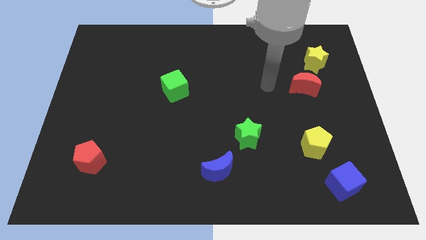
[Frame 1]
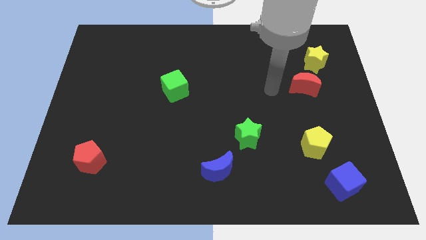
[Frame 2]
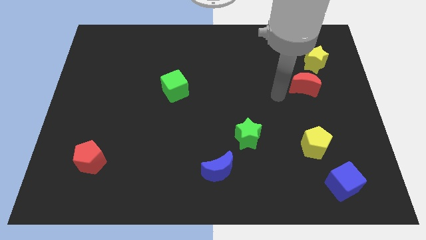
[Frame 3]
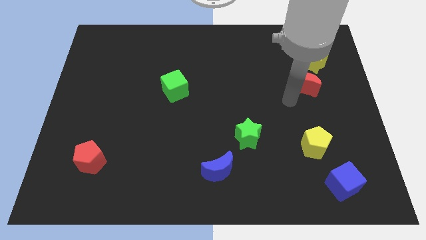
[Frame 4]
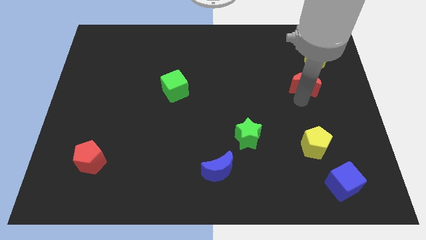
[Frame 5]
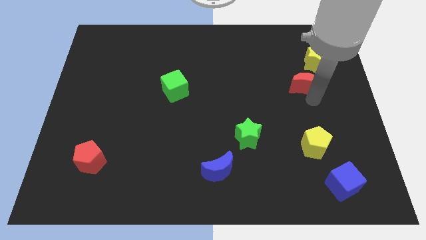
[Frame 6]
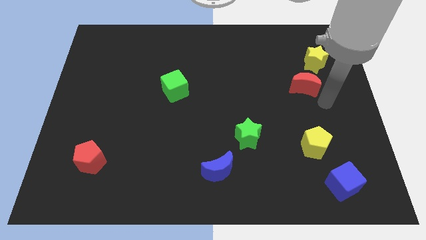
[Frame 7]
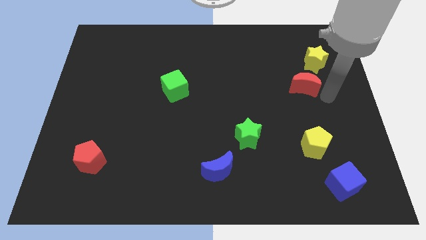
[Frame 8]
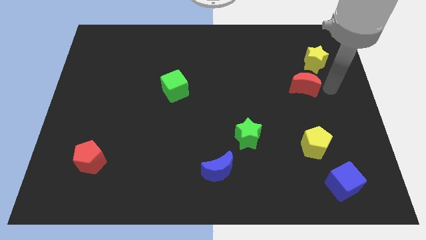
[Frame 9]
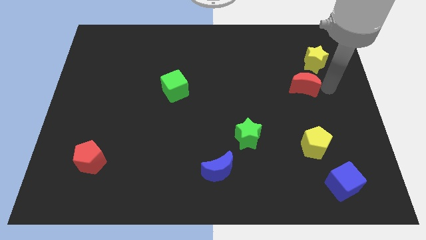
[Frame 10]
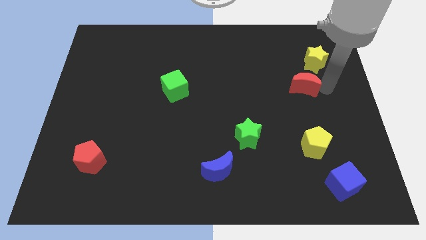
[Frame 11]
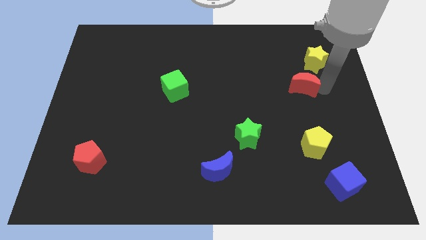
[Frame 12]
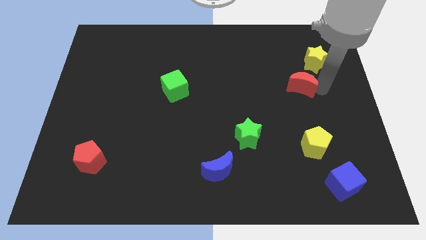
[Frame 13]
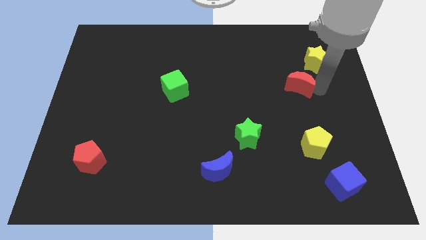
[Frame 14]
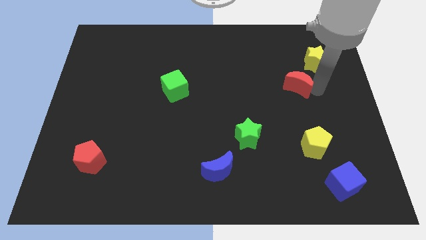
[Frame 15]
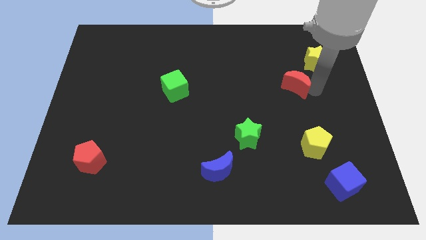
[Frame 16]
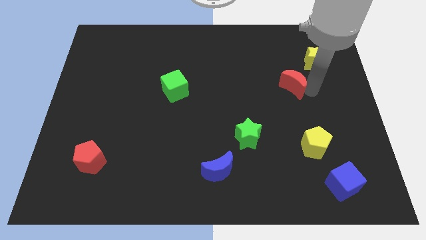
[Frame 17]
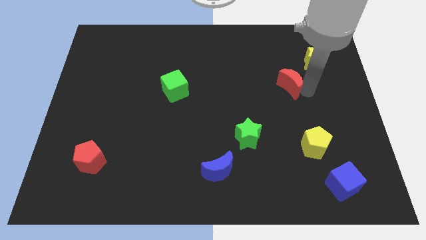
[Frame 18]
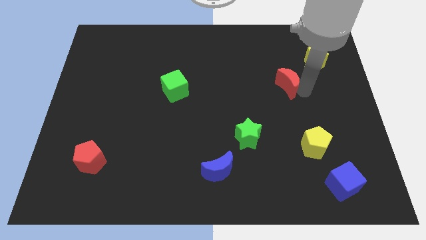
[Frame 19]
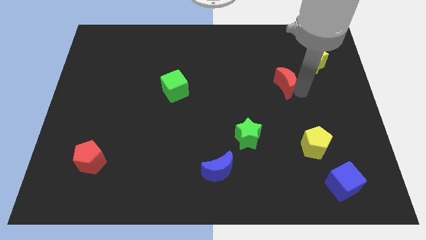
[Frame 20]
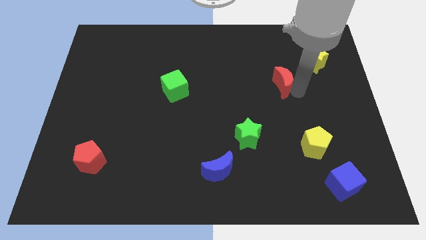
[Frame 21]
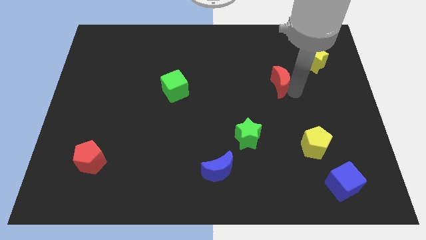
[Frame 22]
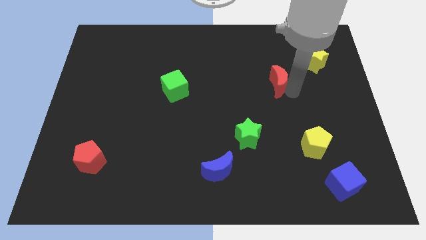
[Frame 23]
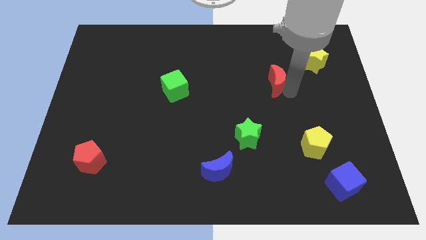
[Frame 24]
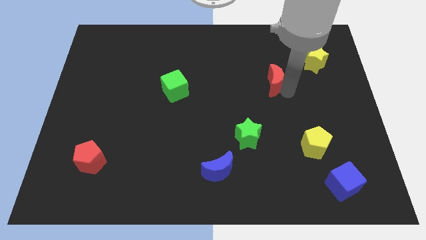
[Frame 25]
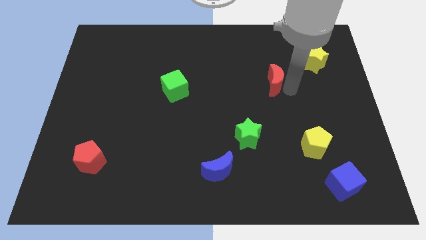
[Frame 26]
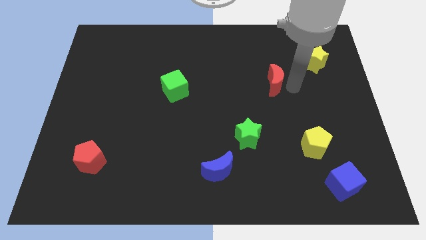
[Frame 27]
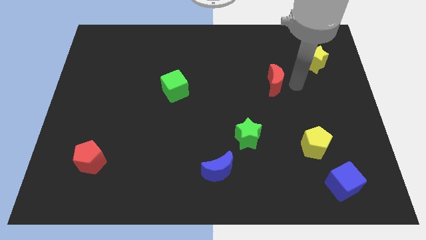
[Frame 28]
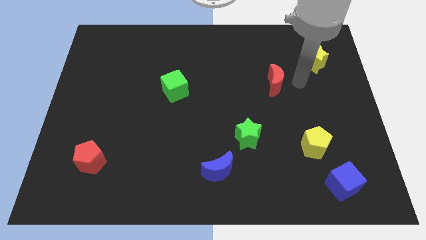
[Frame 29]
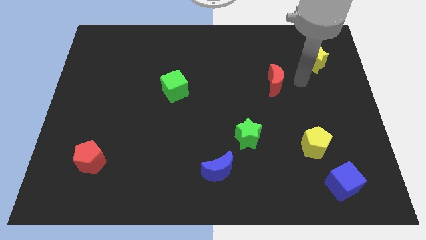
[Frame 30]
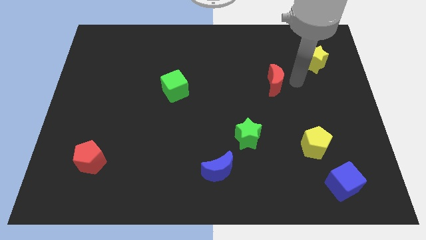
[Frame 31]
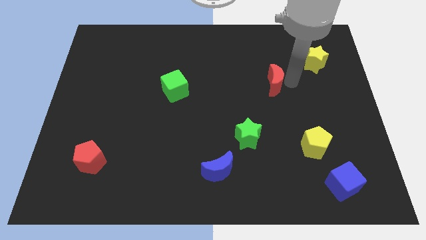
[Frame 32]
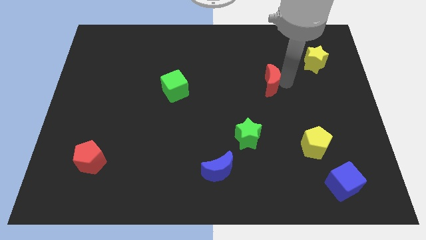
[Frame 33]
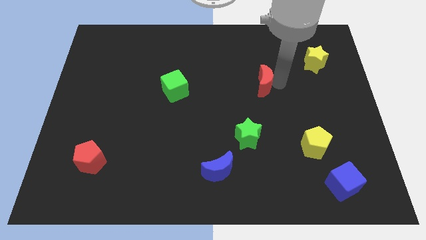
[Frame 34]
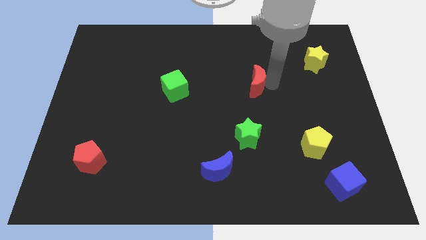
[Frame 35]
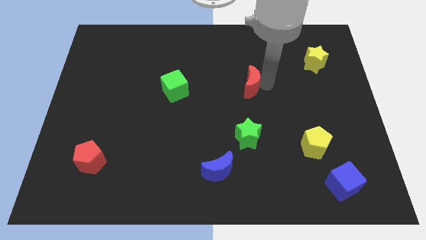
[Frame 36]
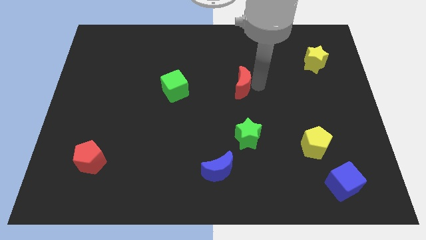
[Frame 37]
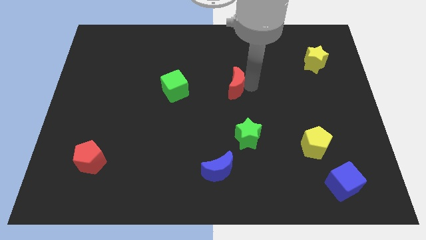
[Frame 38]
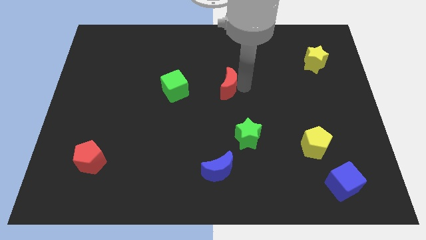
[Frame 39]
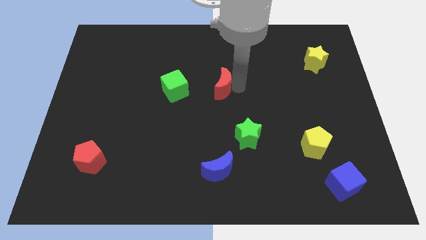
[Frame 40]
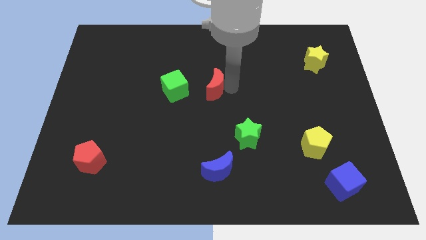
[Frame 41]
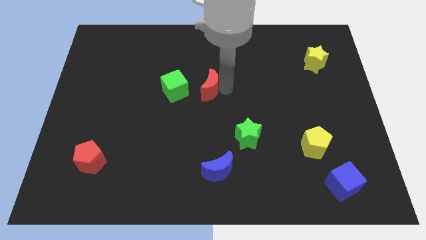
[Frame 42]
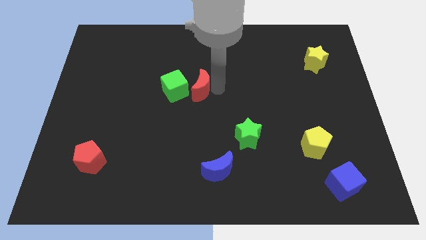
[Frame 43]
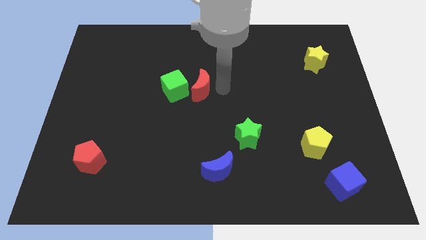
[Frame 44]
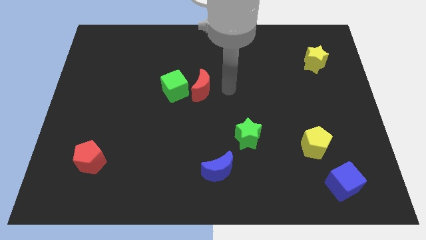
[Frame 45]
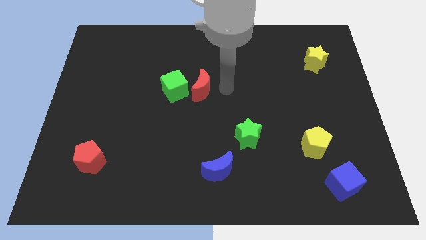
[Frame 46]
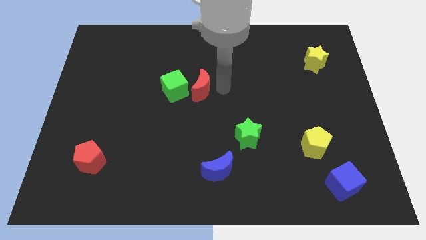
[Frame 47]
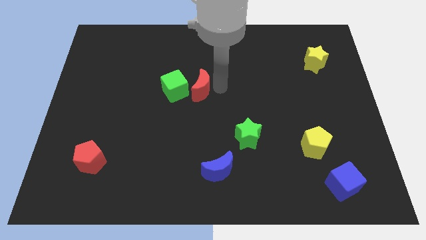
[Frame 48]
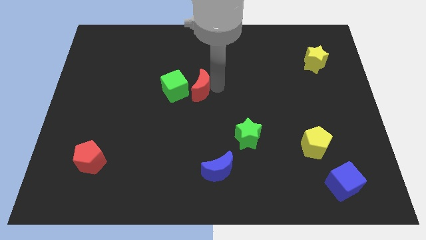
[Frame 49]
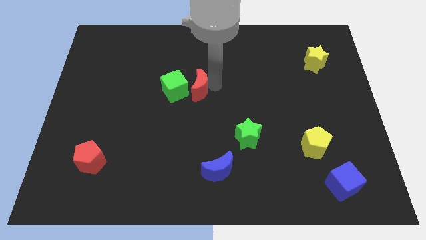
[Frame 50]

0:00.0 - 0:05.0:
move the red moon next to the green cube

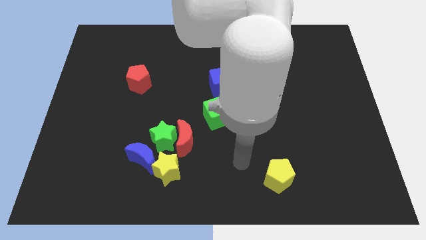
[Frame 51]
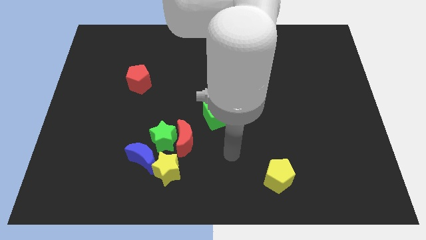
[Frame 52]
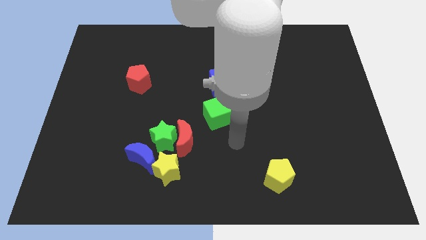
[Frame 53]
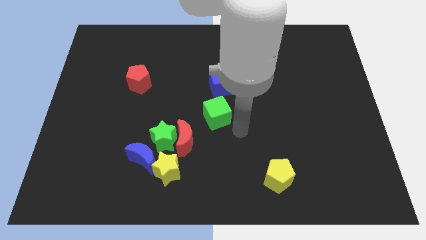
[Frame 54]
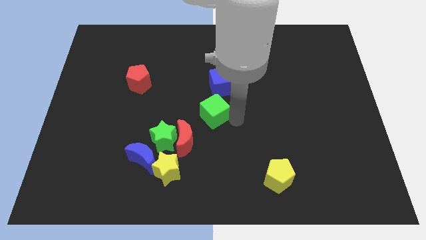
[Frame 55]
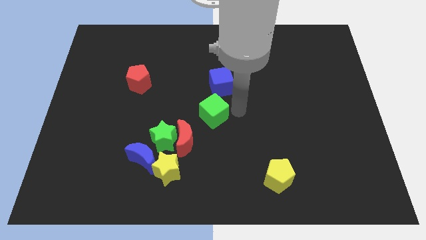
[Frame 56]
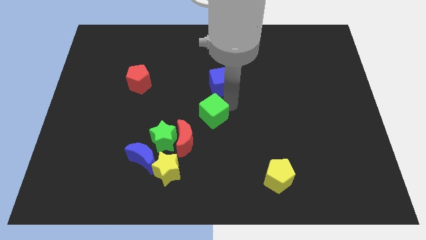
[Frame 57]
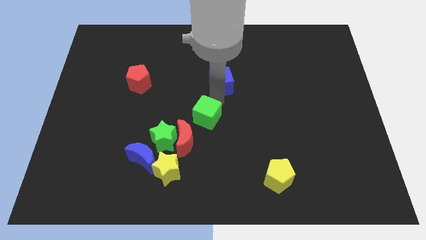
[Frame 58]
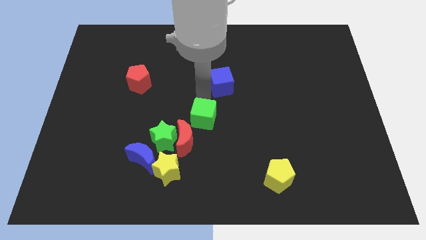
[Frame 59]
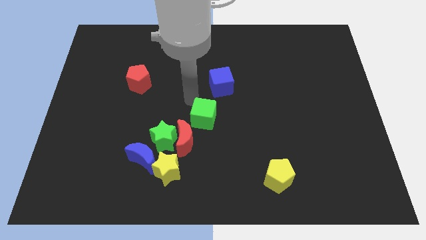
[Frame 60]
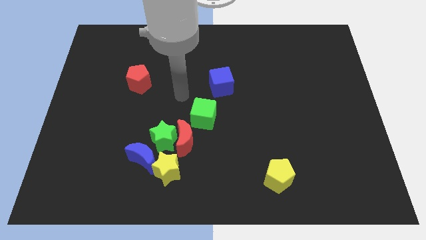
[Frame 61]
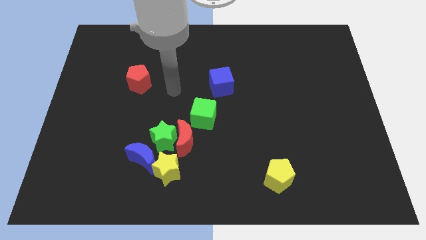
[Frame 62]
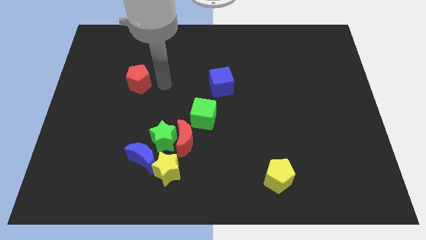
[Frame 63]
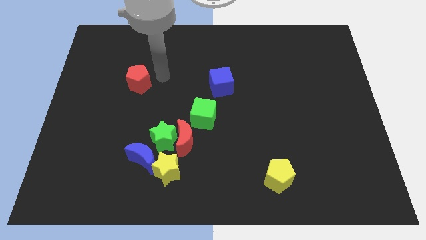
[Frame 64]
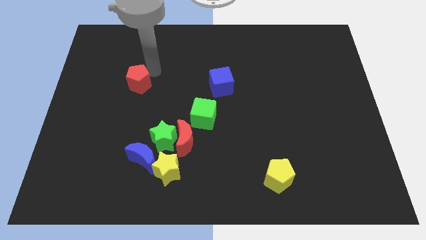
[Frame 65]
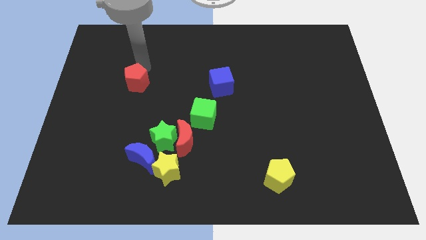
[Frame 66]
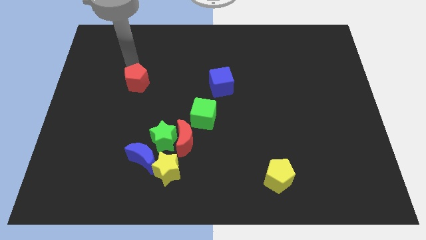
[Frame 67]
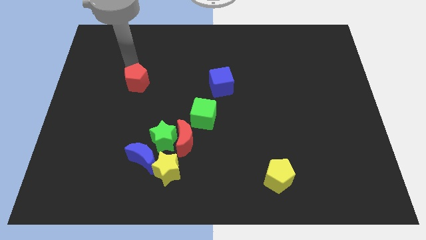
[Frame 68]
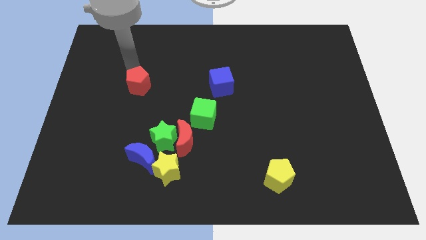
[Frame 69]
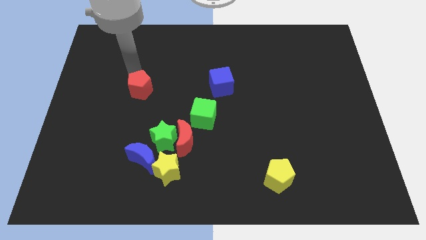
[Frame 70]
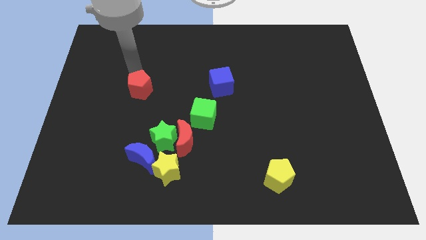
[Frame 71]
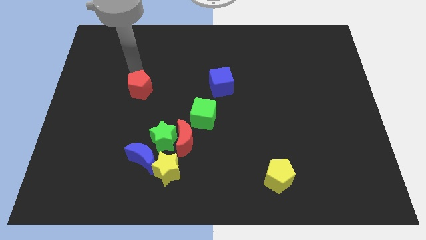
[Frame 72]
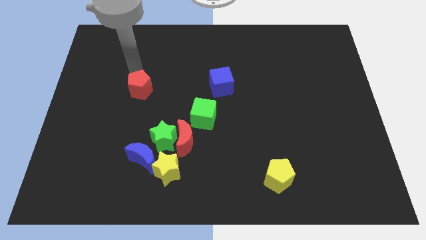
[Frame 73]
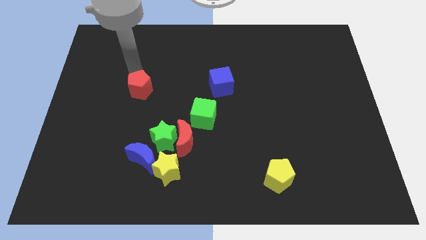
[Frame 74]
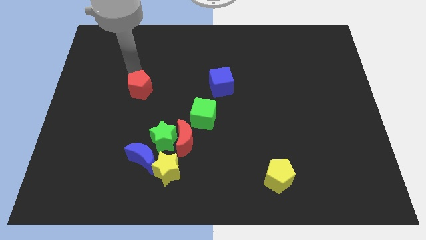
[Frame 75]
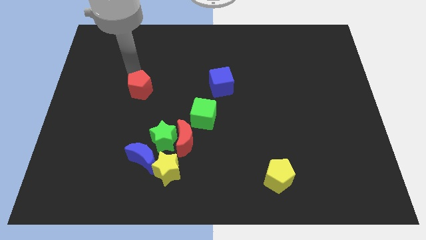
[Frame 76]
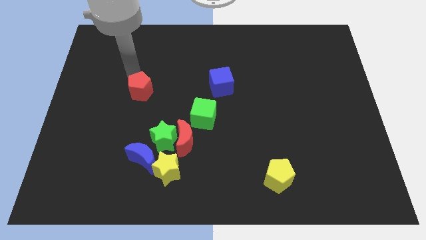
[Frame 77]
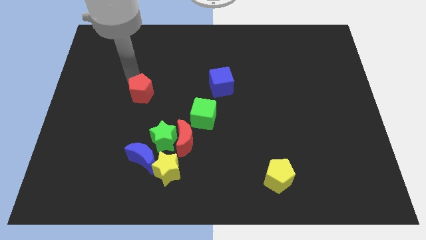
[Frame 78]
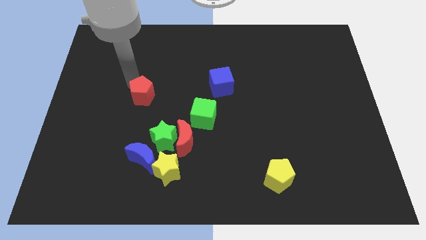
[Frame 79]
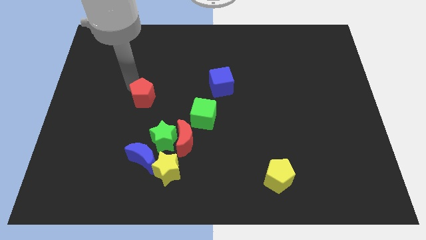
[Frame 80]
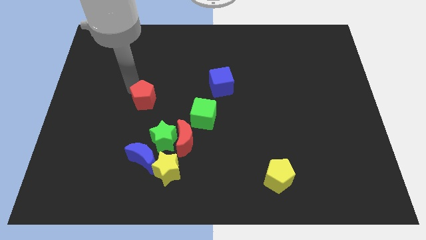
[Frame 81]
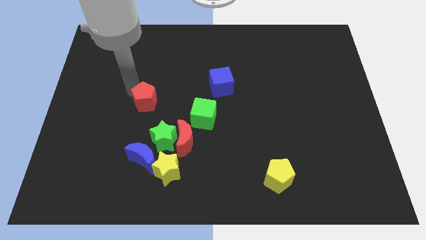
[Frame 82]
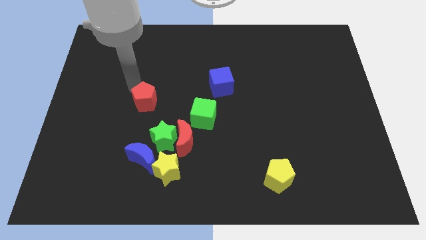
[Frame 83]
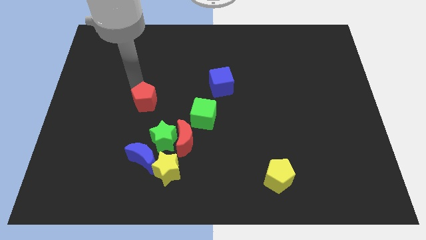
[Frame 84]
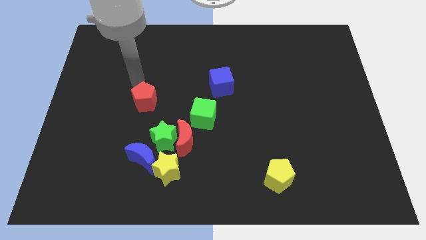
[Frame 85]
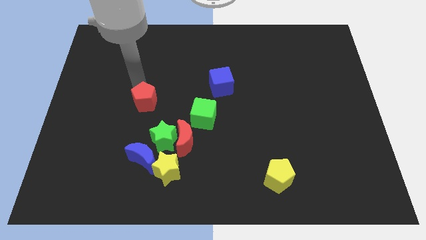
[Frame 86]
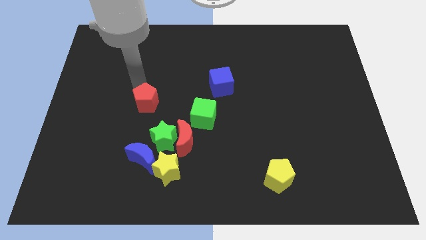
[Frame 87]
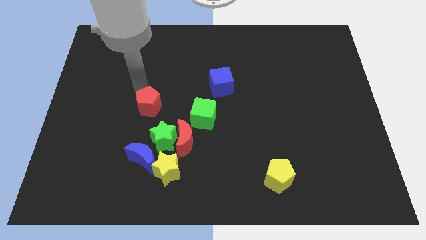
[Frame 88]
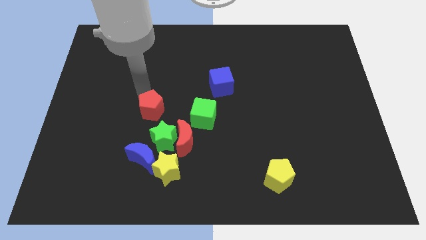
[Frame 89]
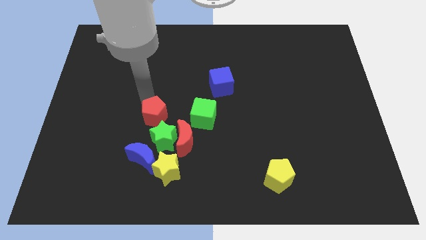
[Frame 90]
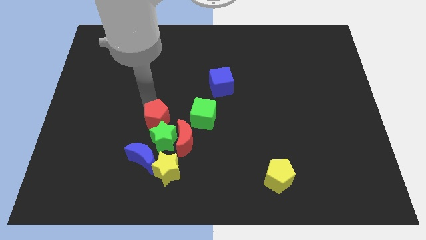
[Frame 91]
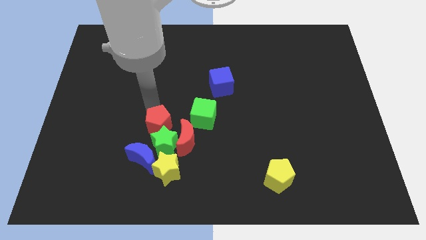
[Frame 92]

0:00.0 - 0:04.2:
put the red pentagon next to the green star
